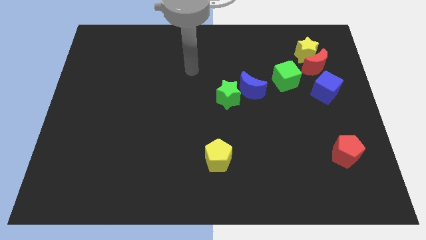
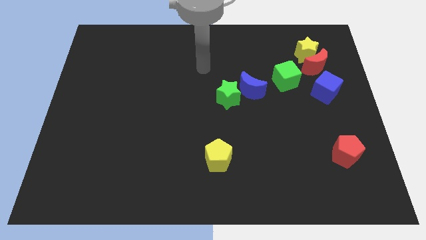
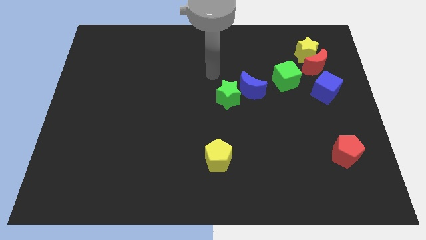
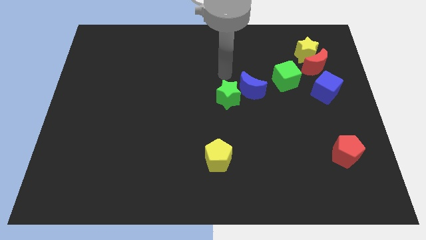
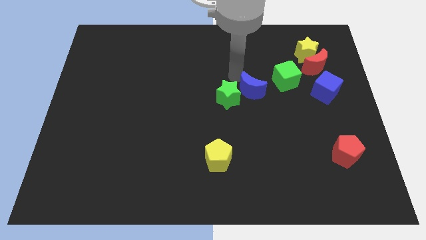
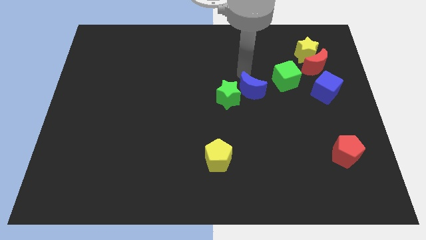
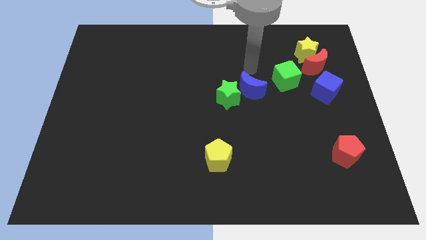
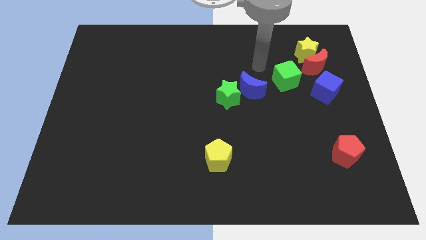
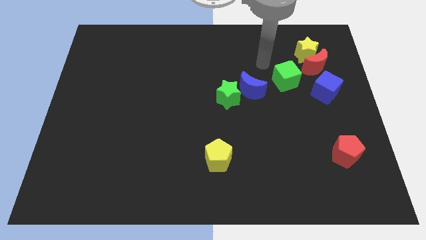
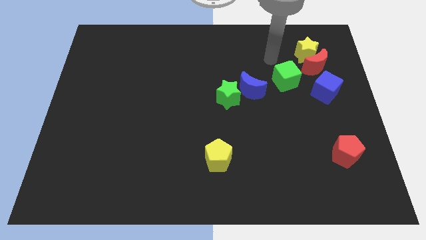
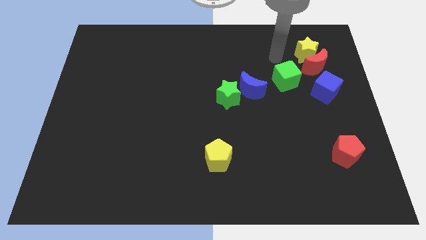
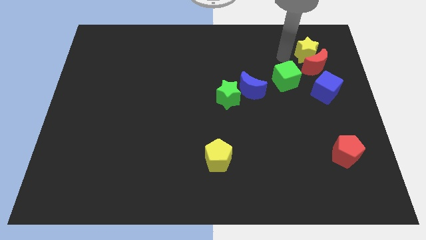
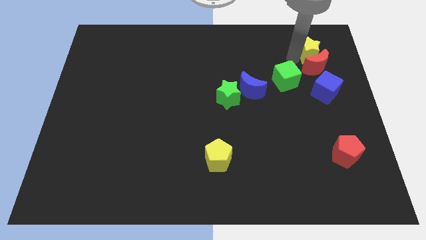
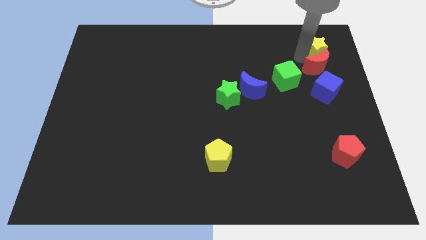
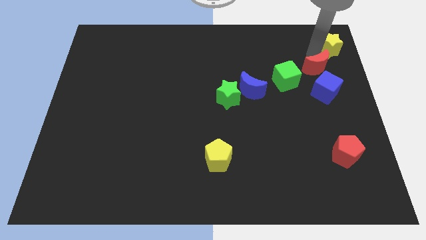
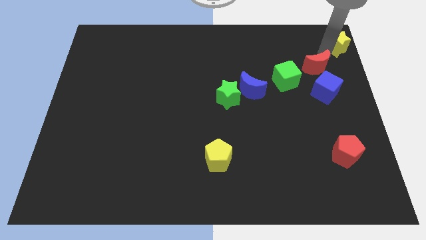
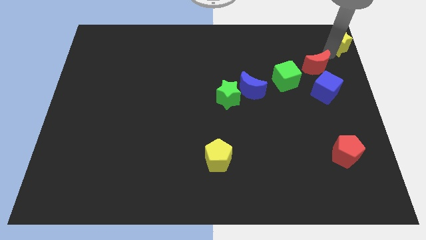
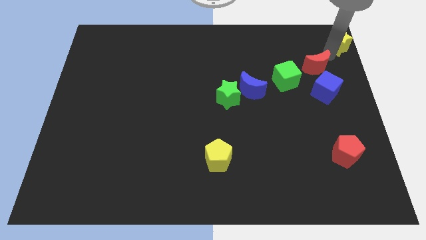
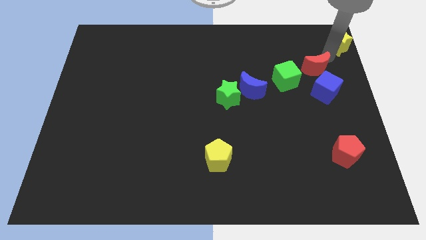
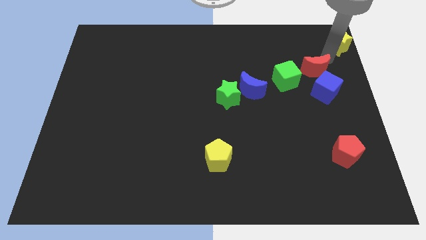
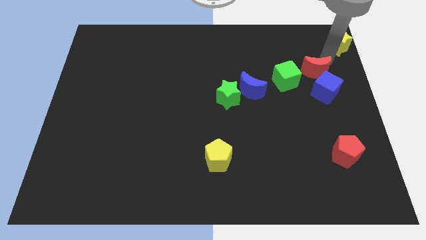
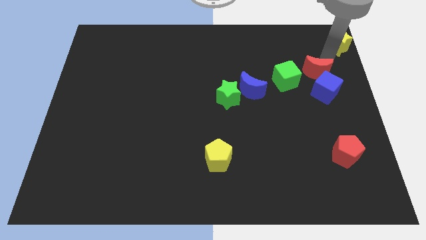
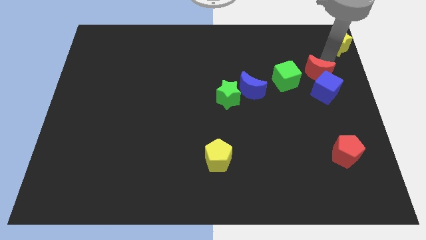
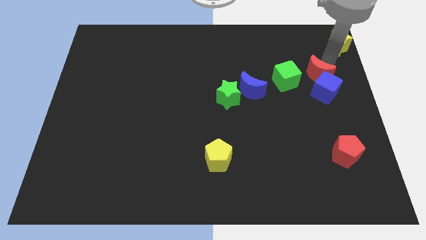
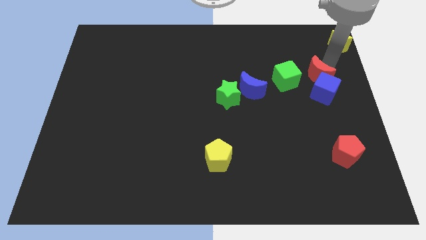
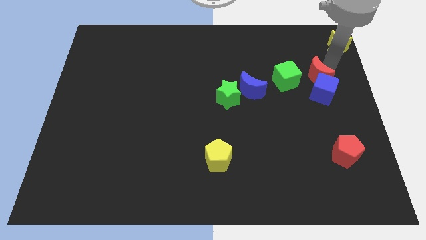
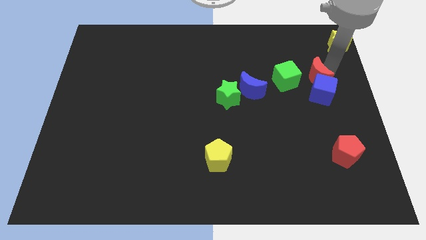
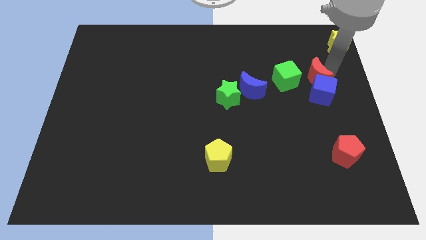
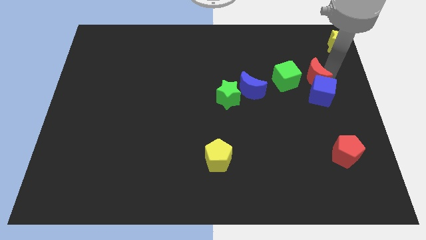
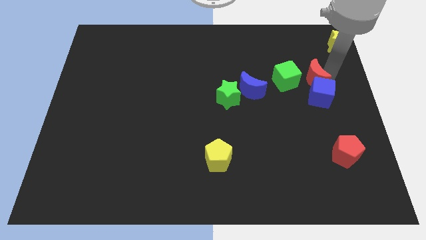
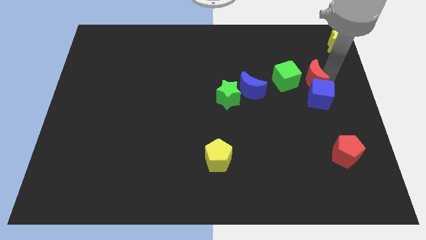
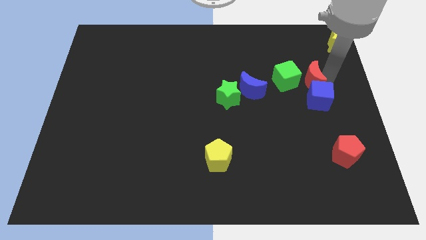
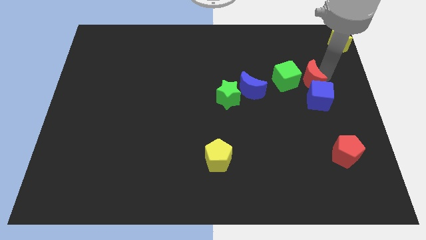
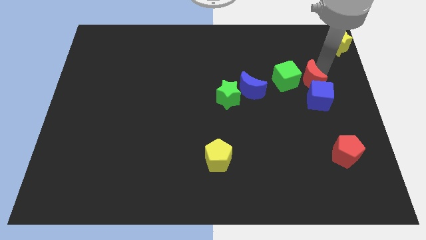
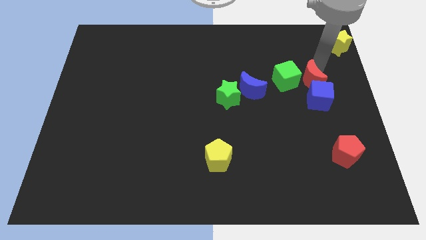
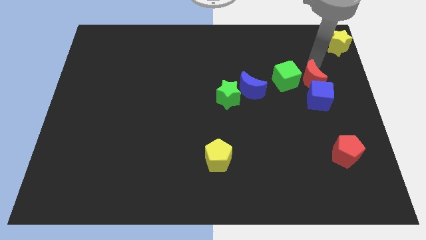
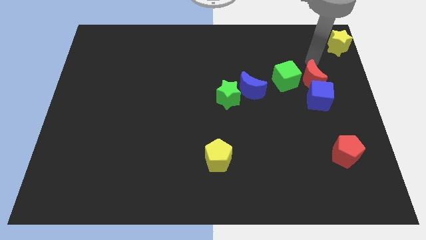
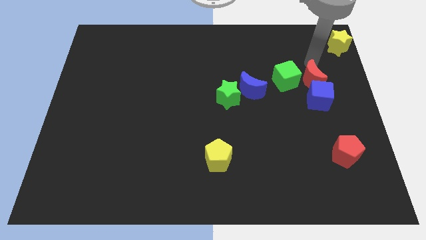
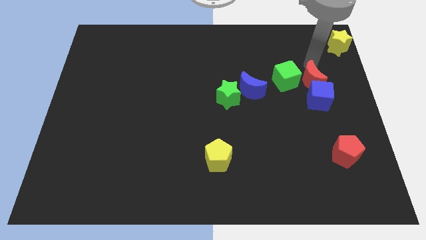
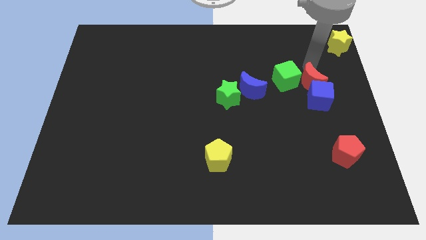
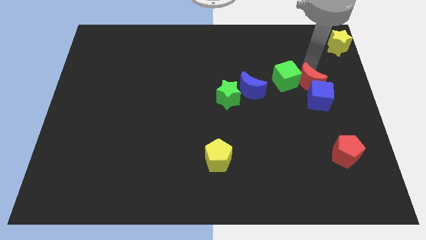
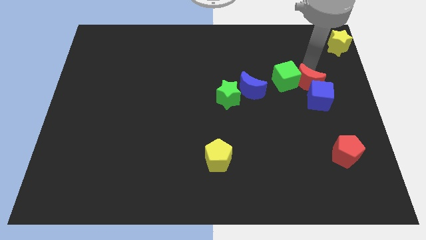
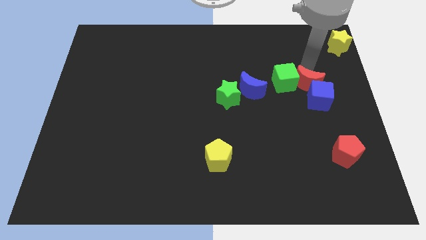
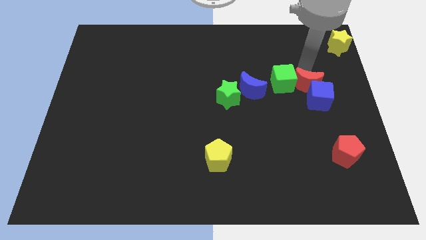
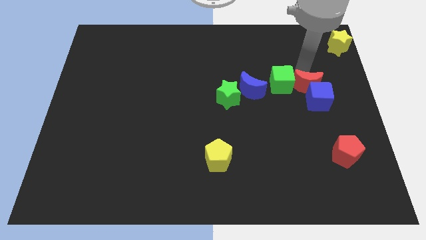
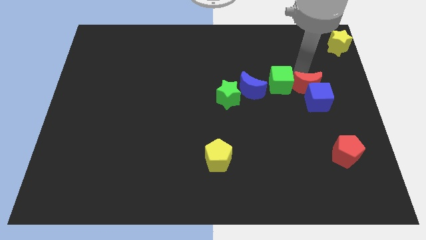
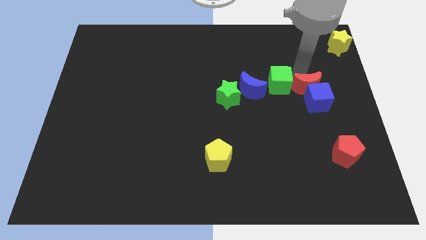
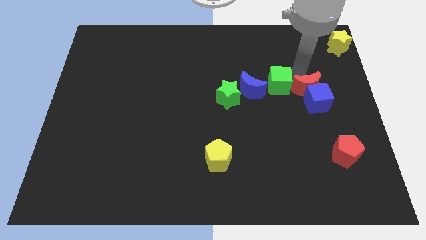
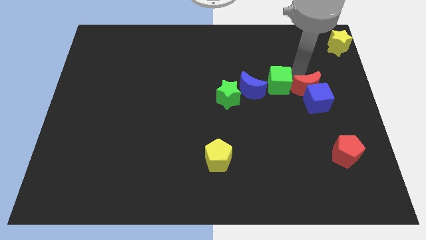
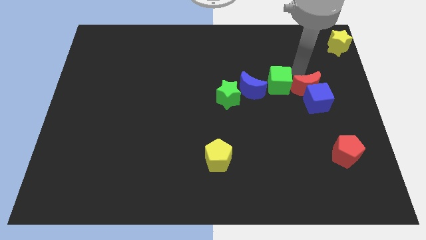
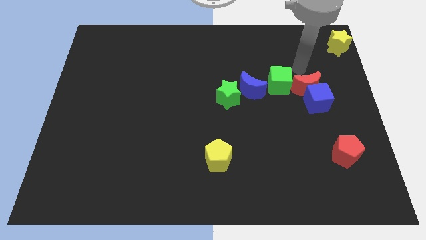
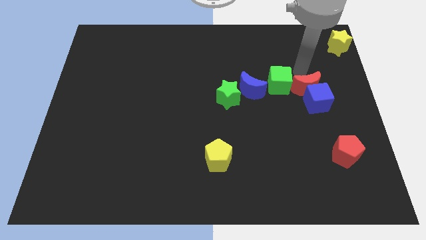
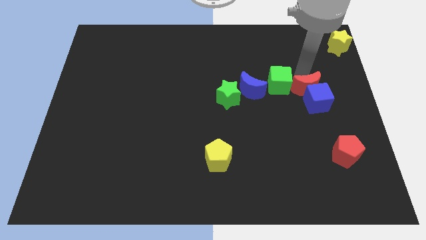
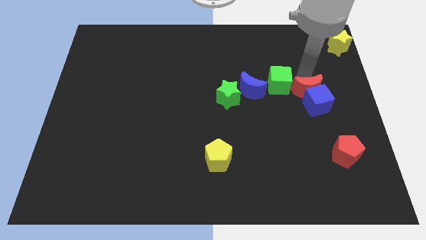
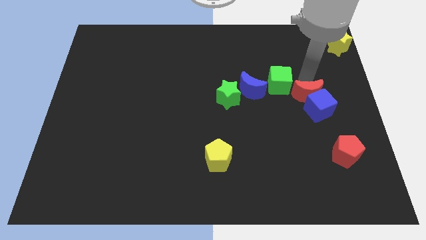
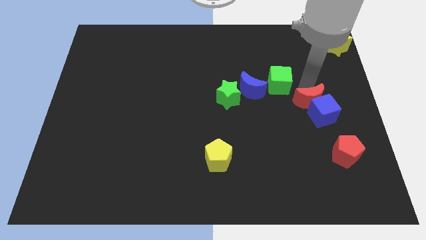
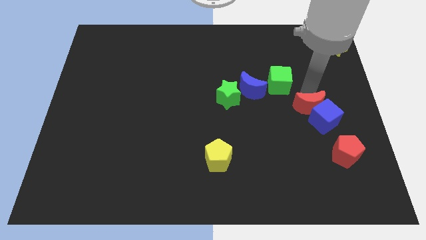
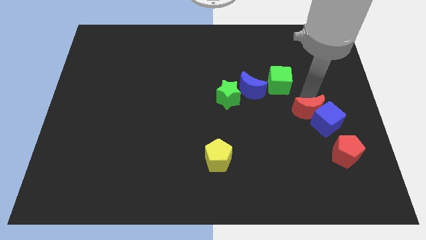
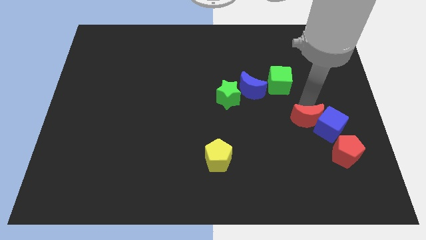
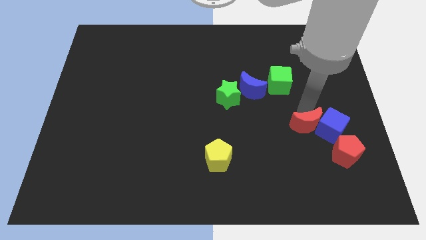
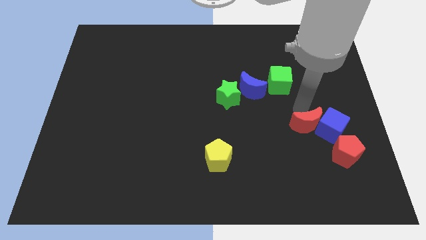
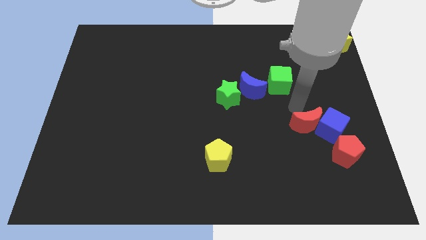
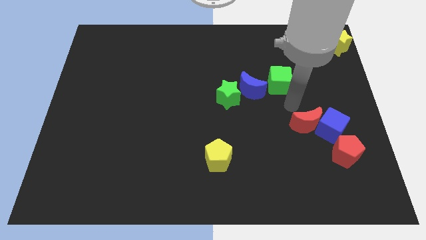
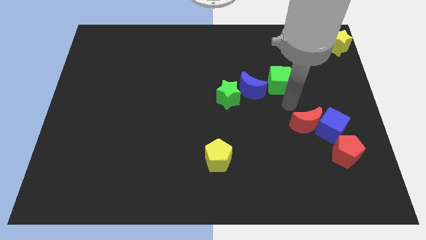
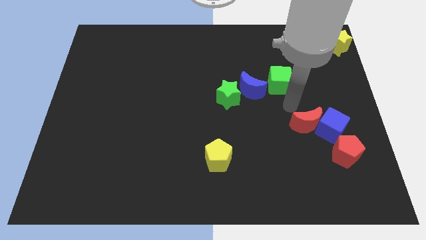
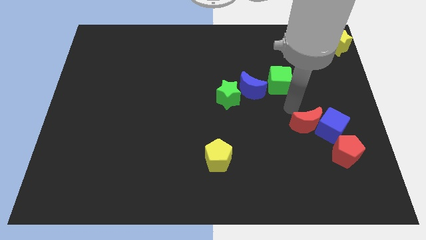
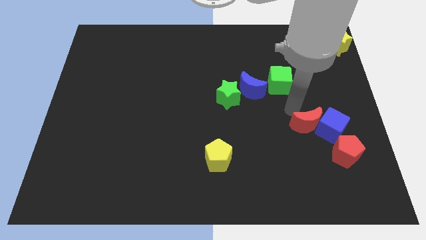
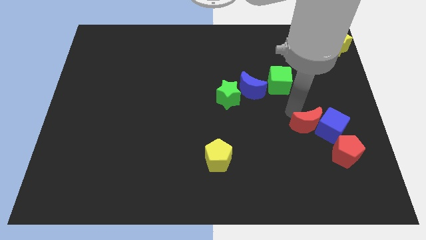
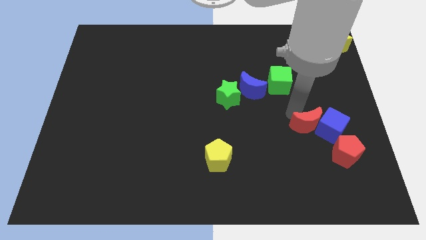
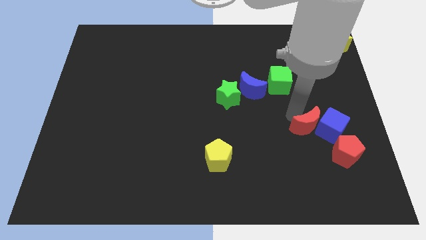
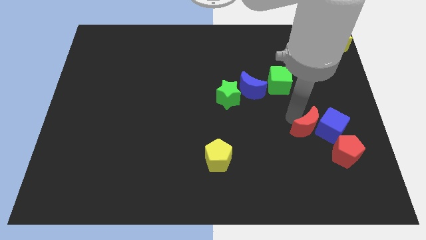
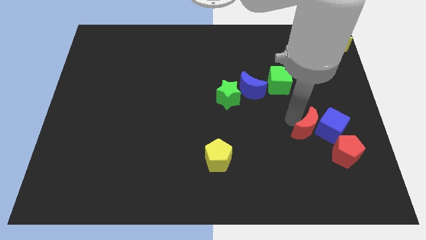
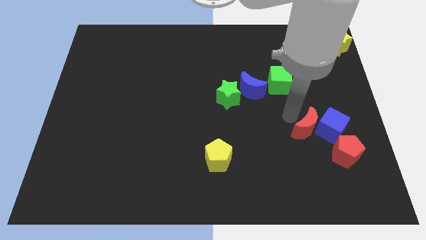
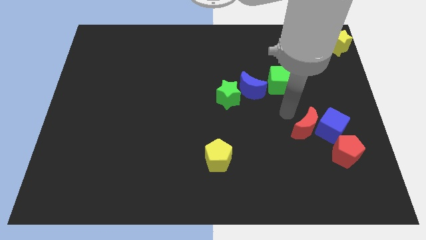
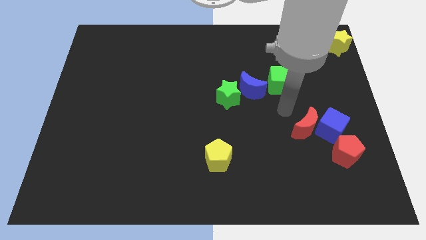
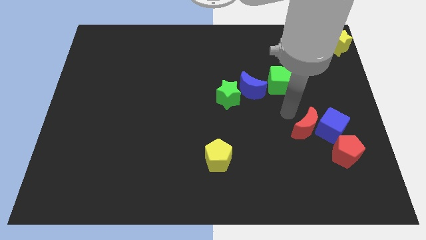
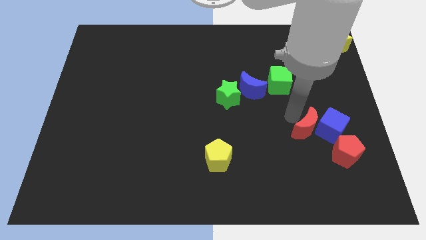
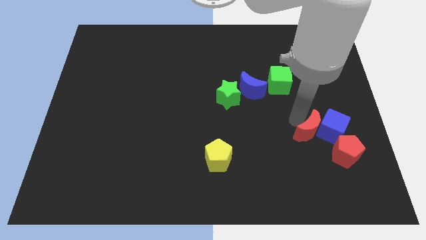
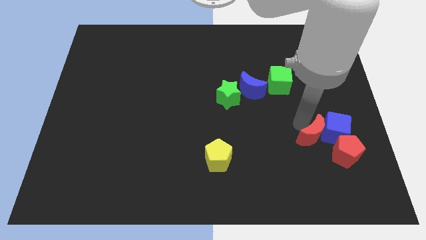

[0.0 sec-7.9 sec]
slide the red moon downwards
